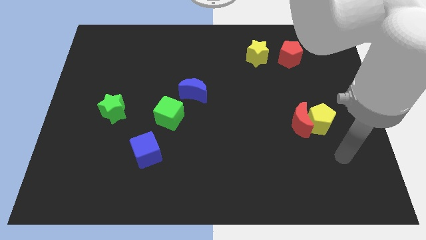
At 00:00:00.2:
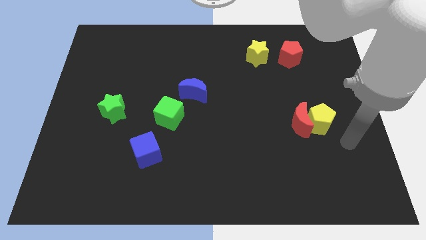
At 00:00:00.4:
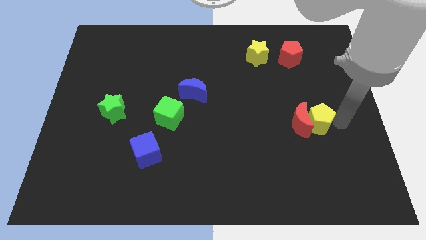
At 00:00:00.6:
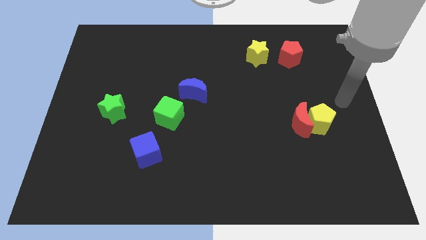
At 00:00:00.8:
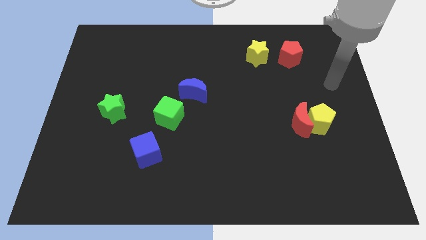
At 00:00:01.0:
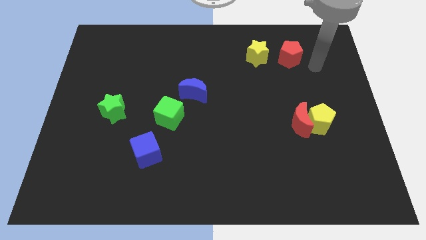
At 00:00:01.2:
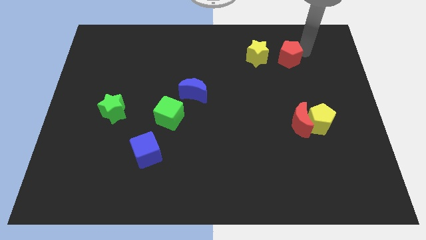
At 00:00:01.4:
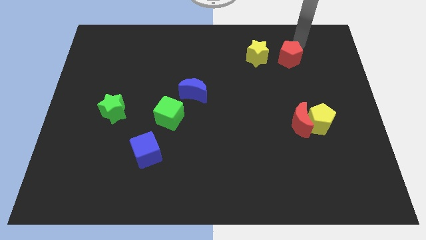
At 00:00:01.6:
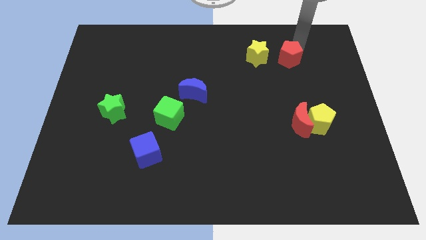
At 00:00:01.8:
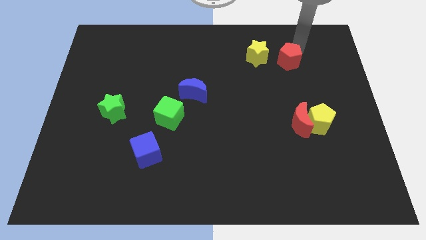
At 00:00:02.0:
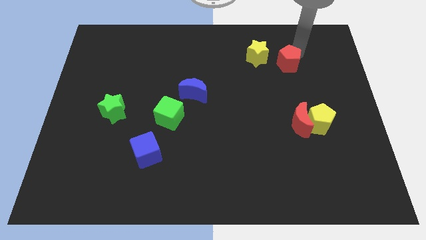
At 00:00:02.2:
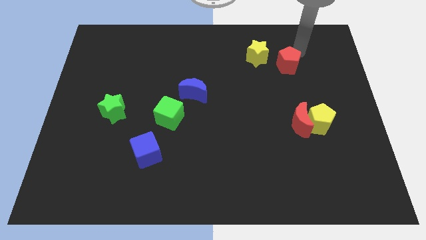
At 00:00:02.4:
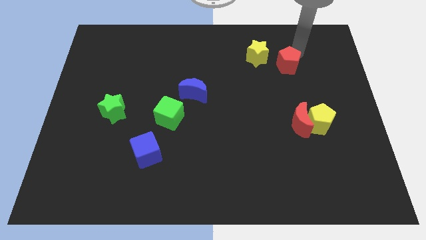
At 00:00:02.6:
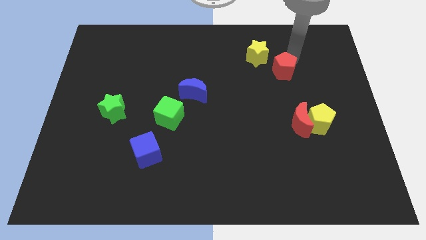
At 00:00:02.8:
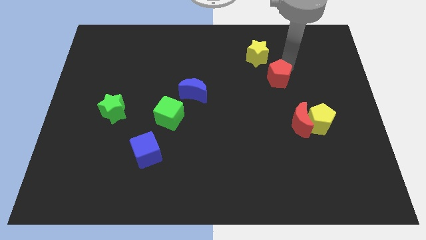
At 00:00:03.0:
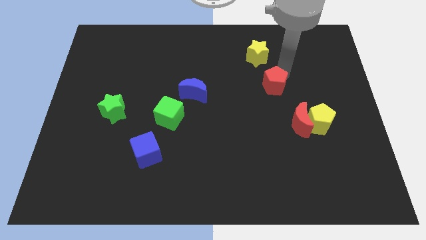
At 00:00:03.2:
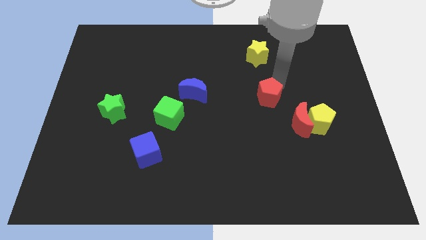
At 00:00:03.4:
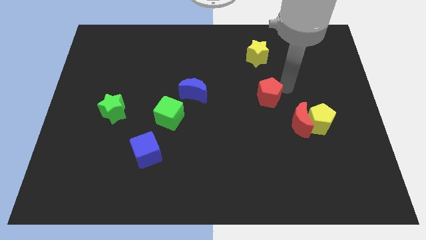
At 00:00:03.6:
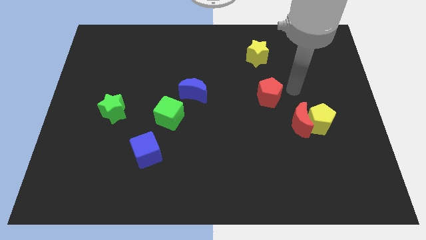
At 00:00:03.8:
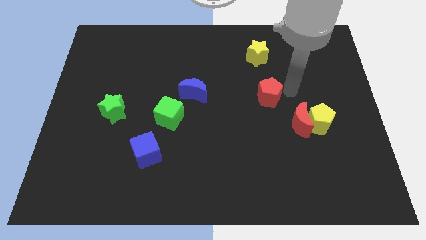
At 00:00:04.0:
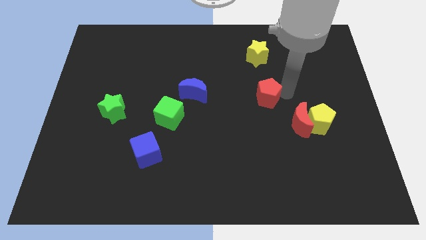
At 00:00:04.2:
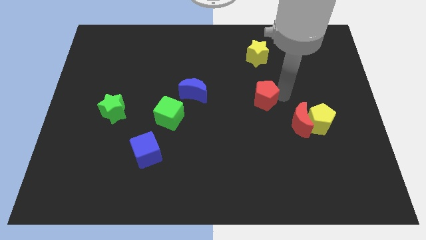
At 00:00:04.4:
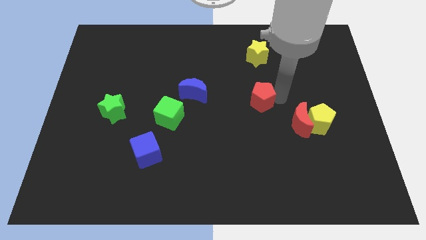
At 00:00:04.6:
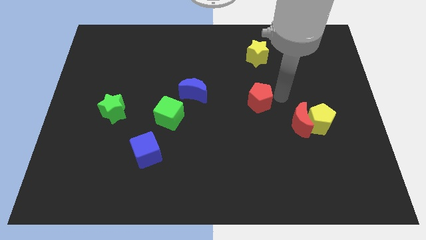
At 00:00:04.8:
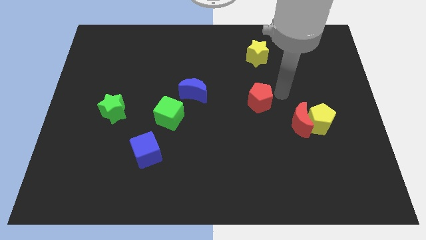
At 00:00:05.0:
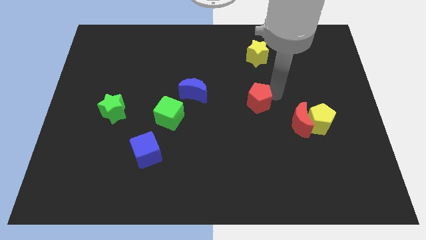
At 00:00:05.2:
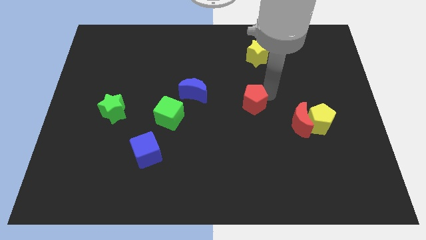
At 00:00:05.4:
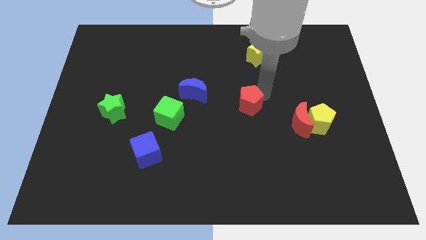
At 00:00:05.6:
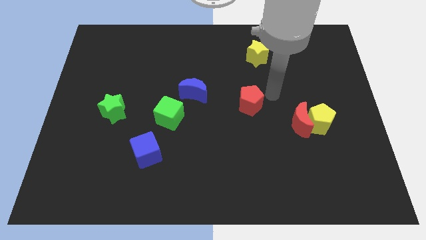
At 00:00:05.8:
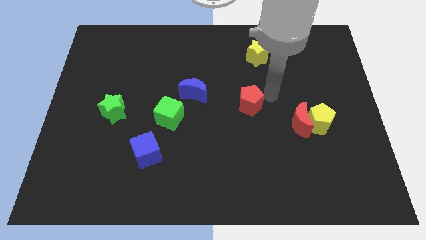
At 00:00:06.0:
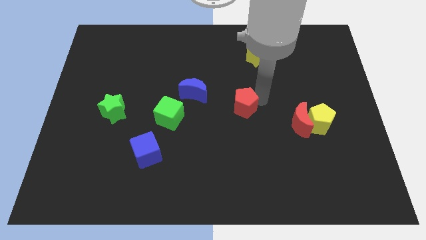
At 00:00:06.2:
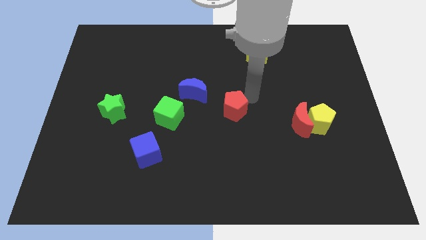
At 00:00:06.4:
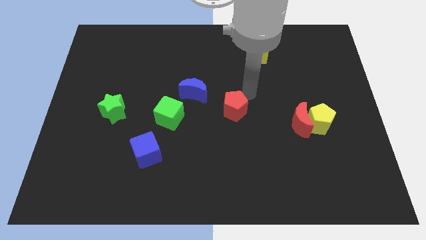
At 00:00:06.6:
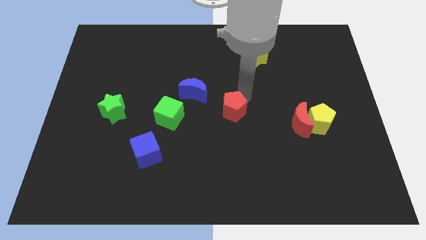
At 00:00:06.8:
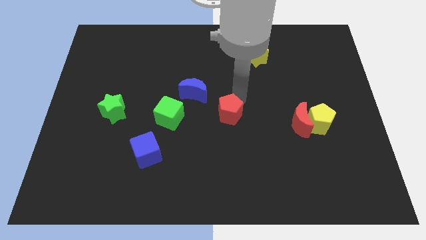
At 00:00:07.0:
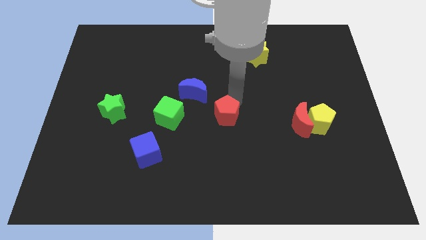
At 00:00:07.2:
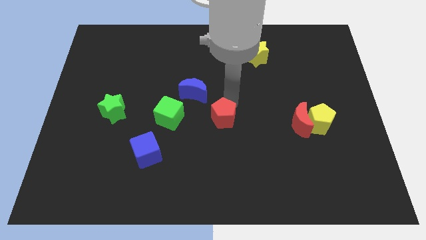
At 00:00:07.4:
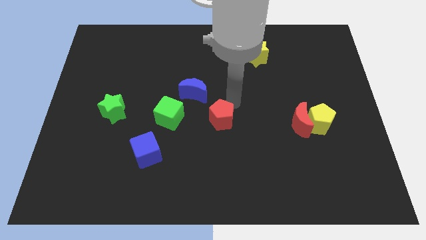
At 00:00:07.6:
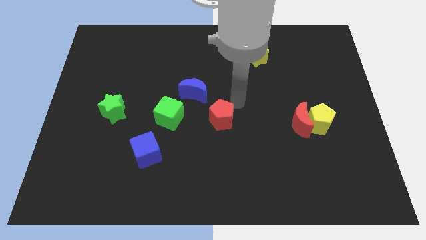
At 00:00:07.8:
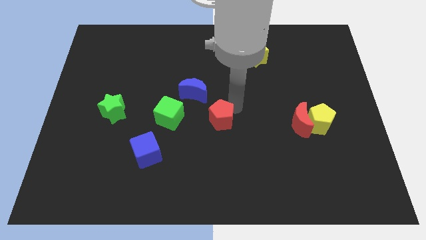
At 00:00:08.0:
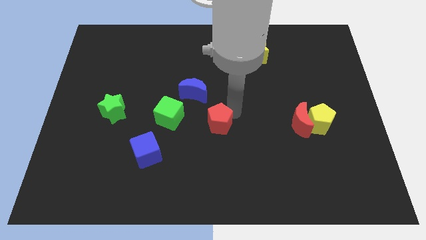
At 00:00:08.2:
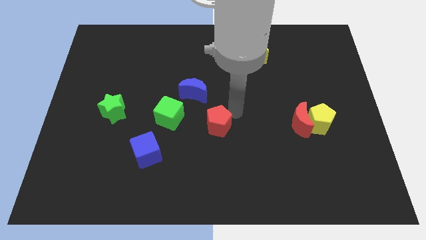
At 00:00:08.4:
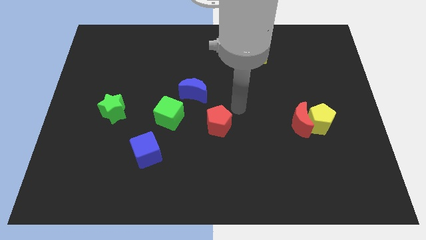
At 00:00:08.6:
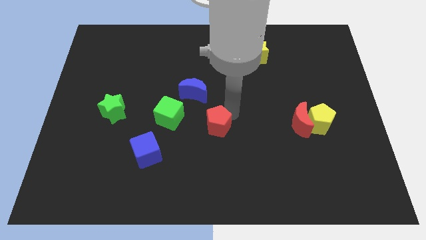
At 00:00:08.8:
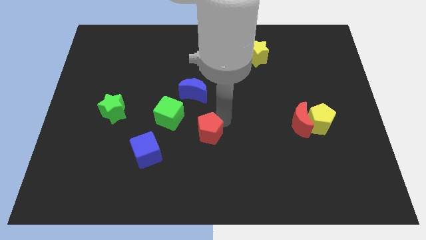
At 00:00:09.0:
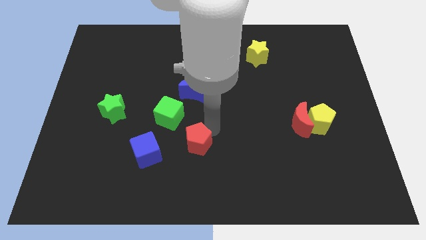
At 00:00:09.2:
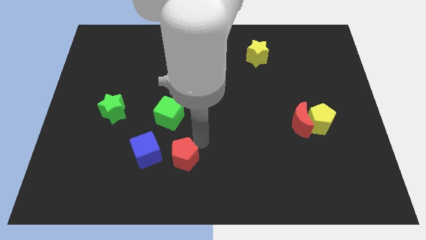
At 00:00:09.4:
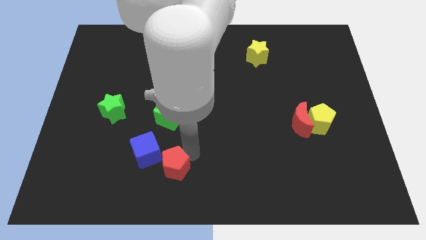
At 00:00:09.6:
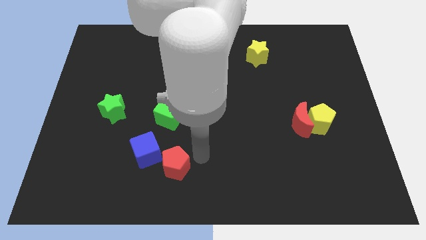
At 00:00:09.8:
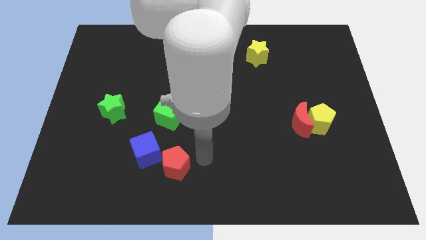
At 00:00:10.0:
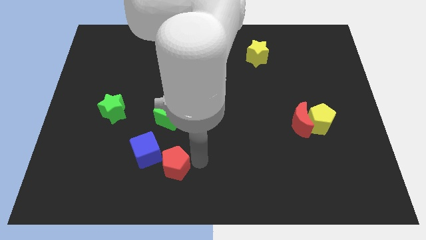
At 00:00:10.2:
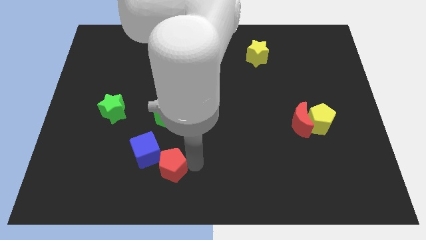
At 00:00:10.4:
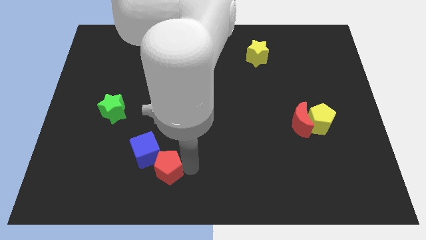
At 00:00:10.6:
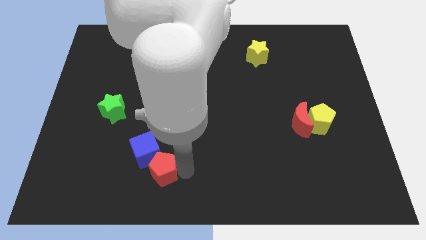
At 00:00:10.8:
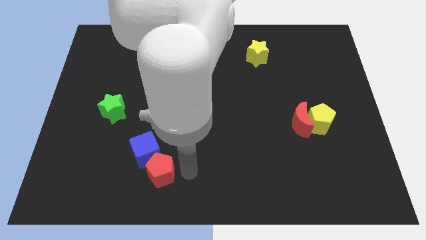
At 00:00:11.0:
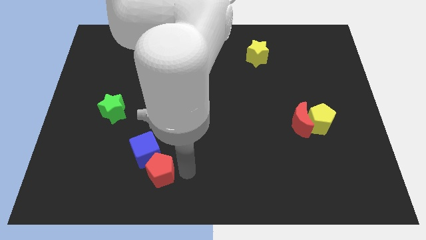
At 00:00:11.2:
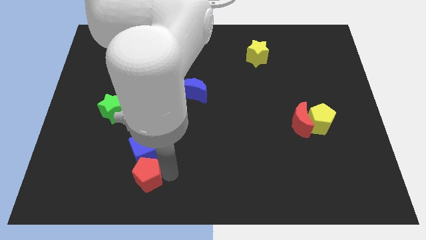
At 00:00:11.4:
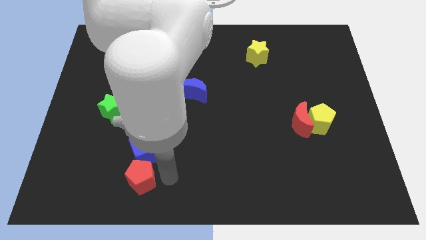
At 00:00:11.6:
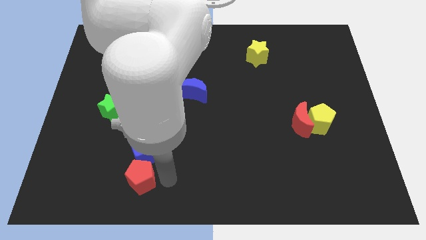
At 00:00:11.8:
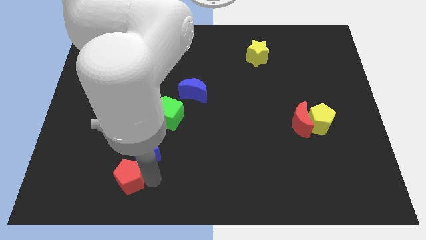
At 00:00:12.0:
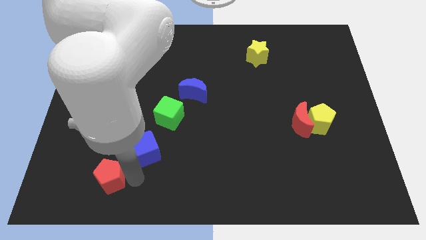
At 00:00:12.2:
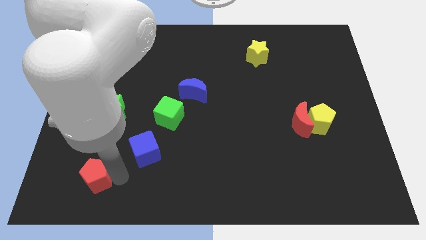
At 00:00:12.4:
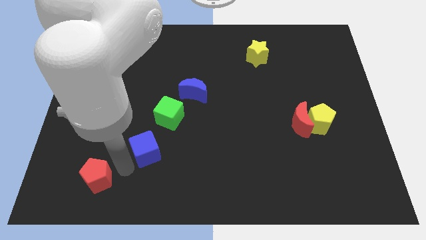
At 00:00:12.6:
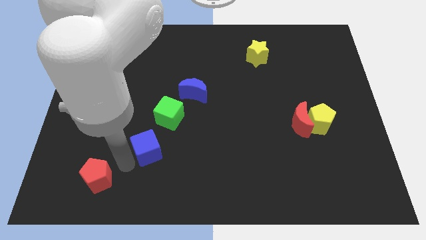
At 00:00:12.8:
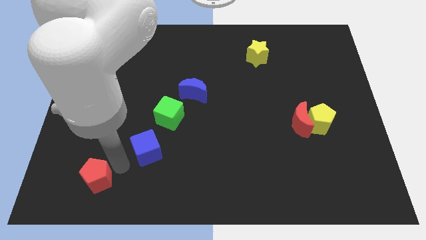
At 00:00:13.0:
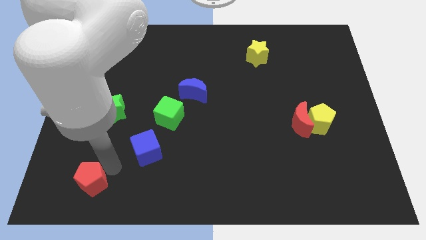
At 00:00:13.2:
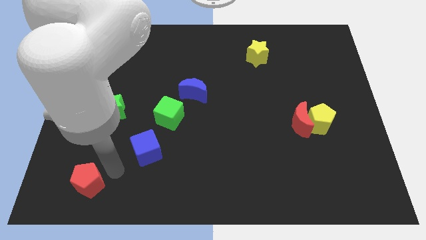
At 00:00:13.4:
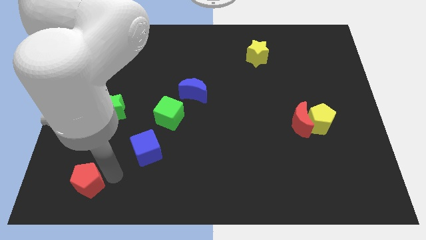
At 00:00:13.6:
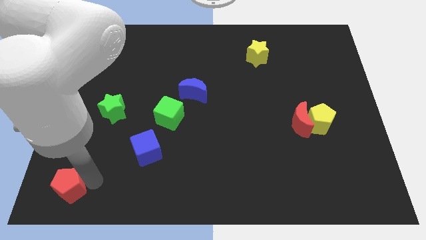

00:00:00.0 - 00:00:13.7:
put the red pentagon to the lower left corner

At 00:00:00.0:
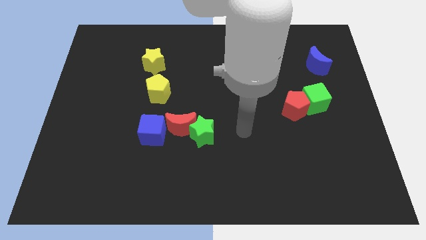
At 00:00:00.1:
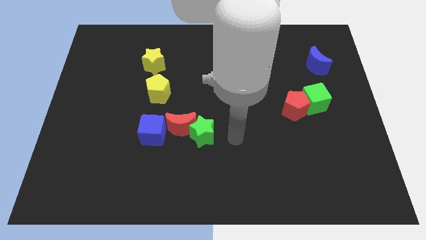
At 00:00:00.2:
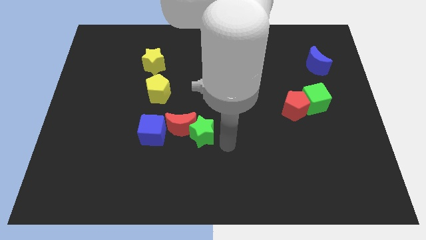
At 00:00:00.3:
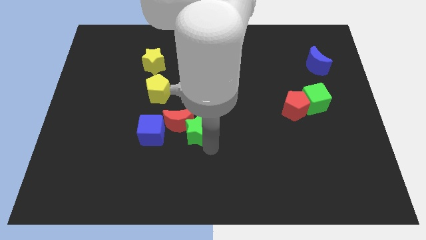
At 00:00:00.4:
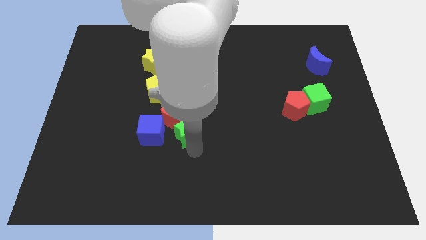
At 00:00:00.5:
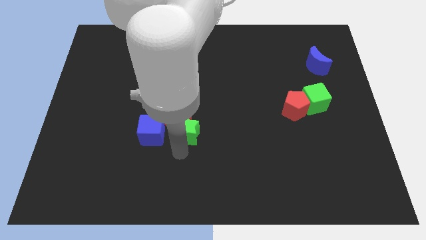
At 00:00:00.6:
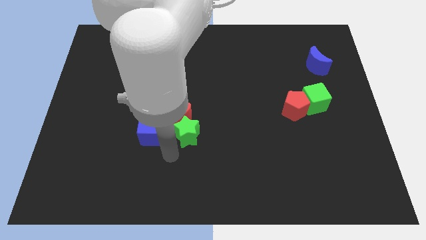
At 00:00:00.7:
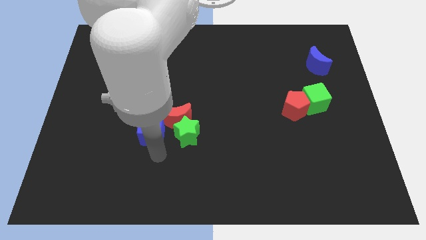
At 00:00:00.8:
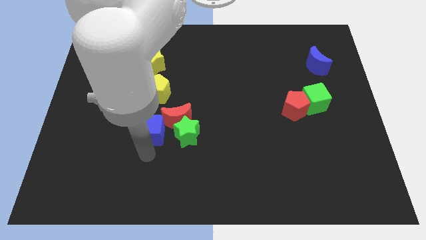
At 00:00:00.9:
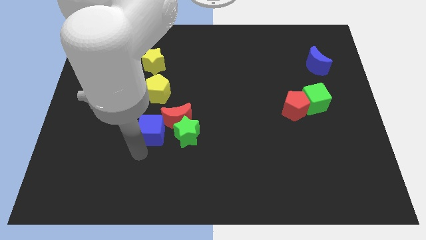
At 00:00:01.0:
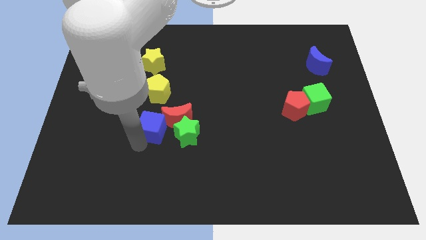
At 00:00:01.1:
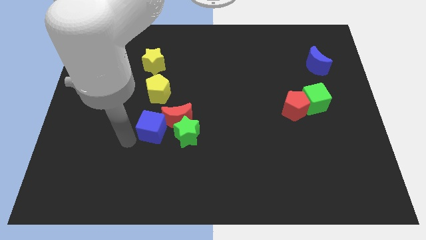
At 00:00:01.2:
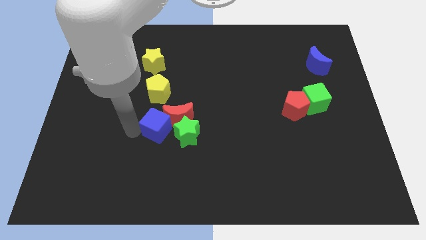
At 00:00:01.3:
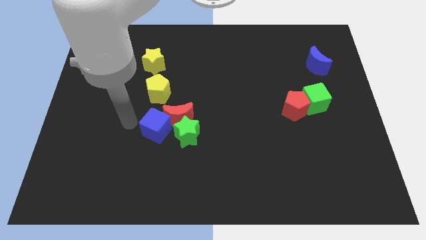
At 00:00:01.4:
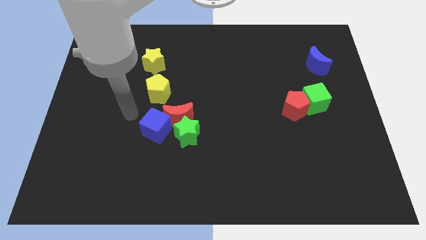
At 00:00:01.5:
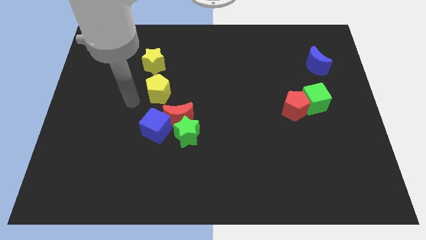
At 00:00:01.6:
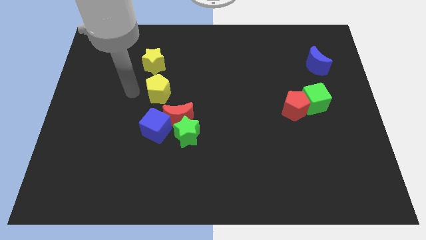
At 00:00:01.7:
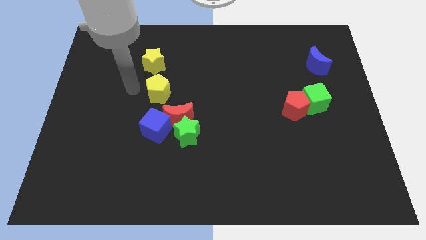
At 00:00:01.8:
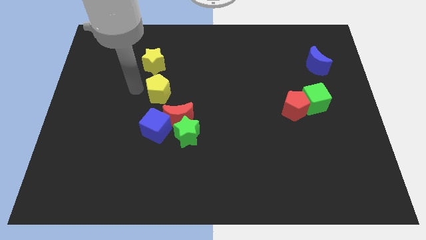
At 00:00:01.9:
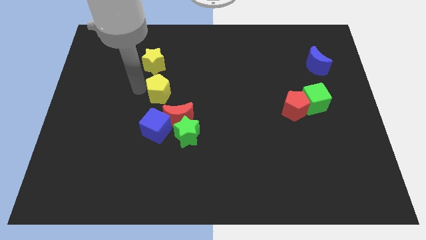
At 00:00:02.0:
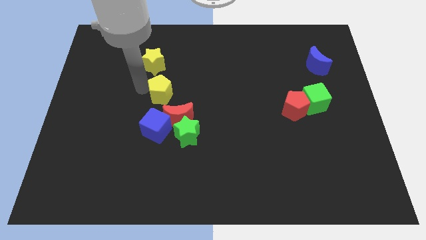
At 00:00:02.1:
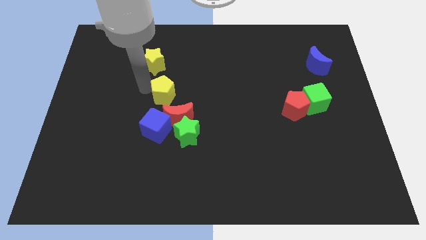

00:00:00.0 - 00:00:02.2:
move the yellow pentagon to the middle
